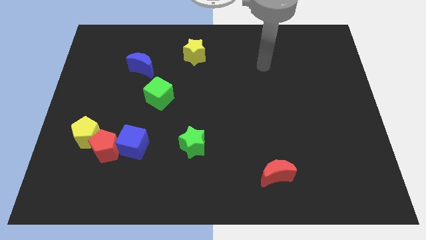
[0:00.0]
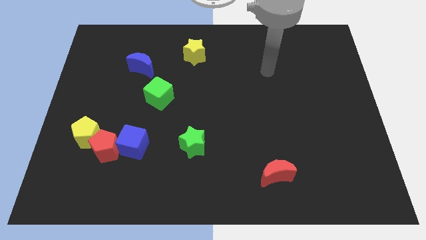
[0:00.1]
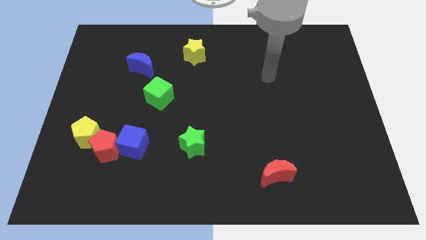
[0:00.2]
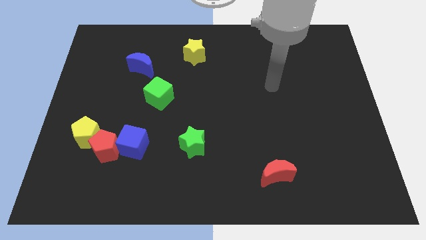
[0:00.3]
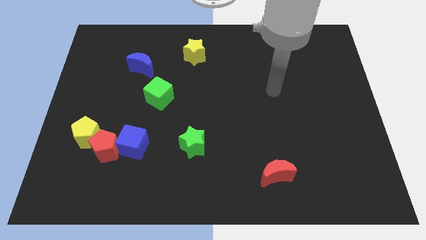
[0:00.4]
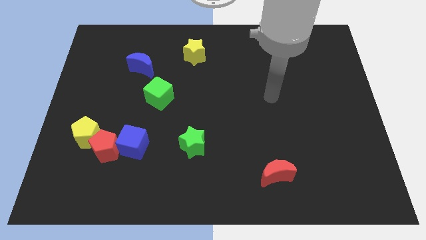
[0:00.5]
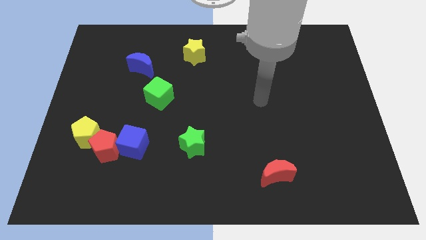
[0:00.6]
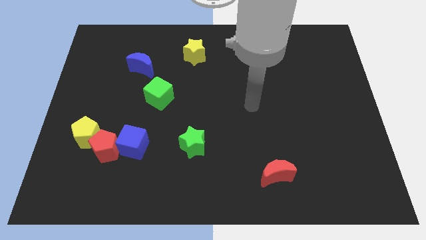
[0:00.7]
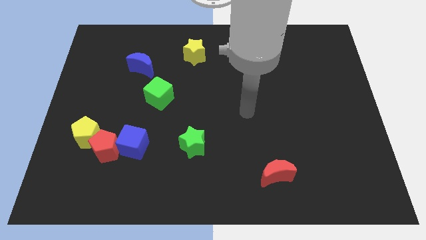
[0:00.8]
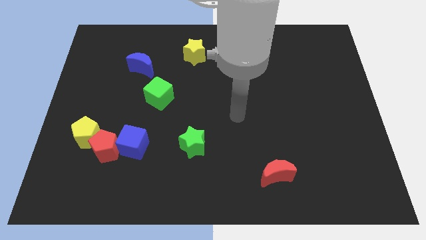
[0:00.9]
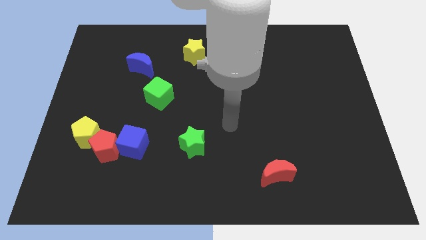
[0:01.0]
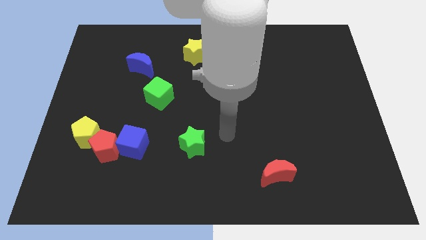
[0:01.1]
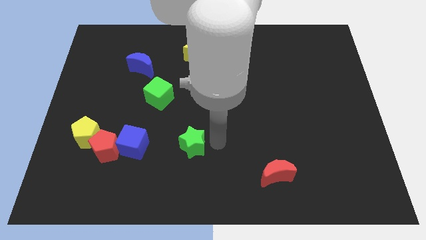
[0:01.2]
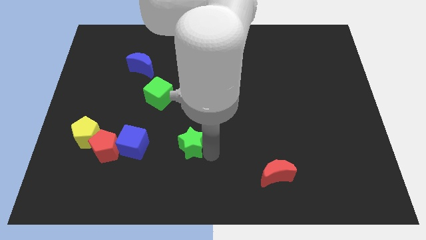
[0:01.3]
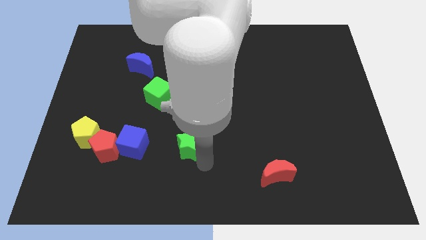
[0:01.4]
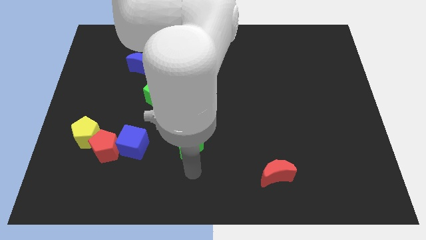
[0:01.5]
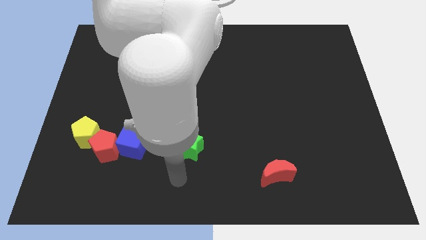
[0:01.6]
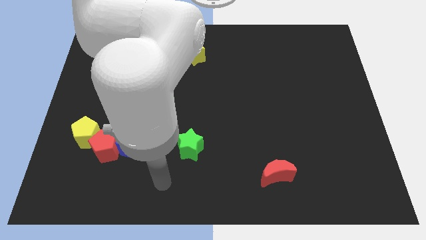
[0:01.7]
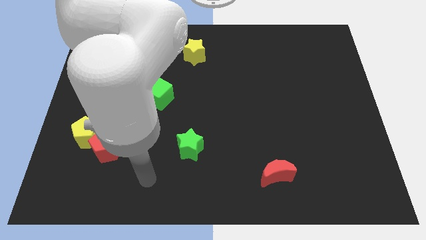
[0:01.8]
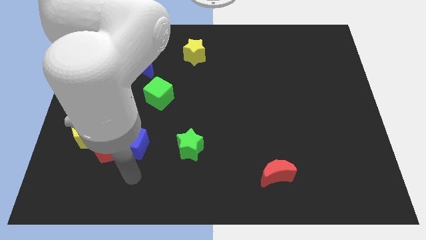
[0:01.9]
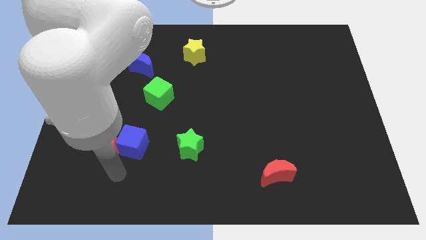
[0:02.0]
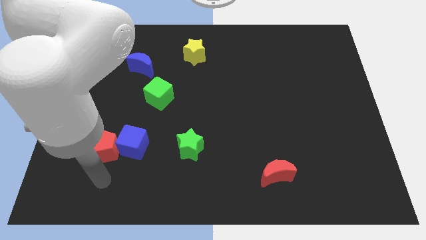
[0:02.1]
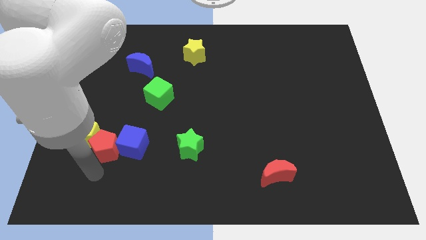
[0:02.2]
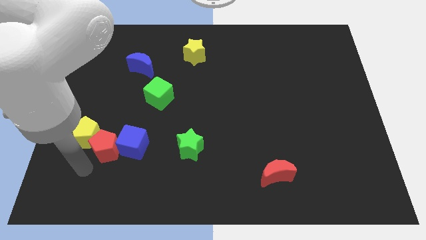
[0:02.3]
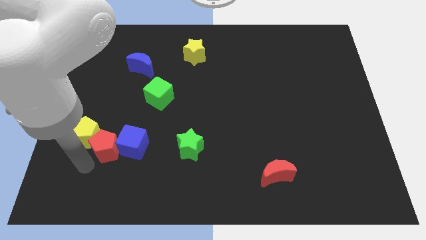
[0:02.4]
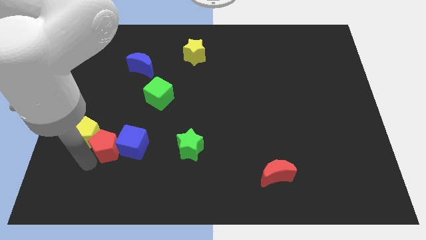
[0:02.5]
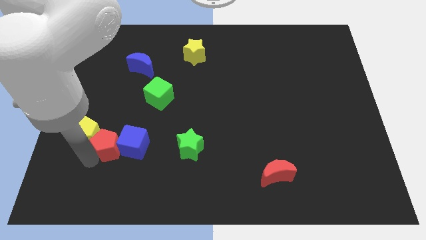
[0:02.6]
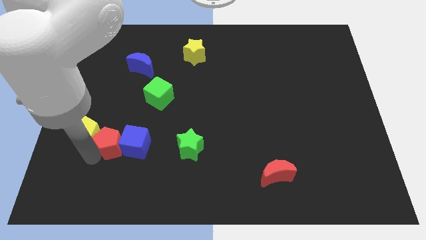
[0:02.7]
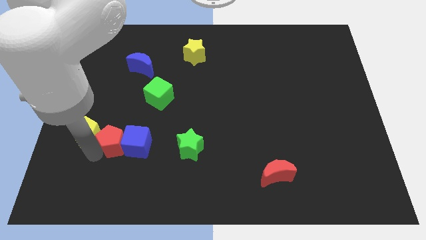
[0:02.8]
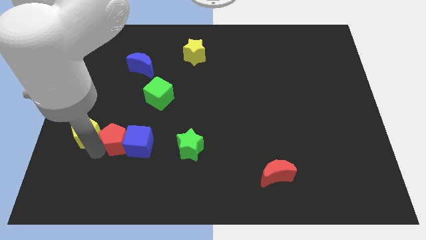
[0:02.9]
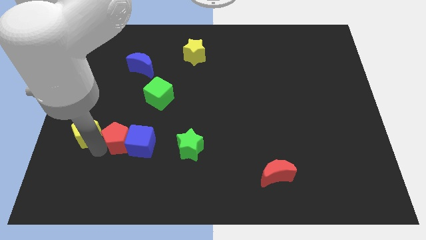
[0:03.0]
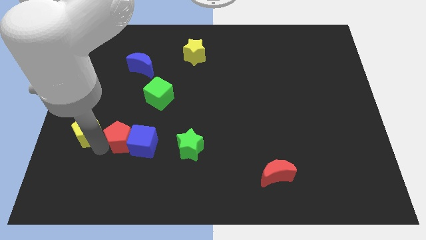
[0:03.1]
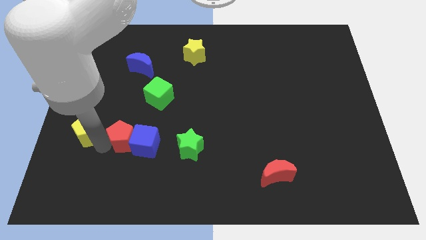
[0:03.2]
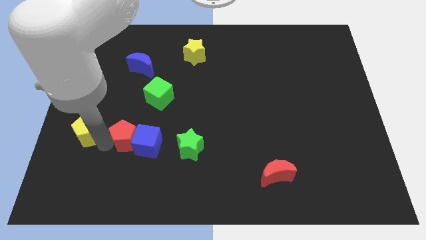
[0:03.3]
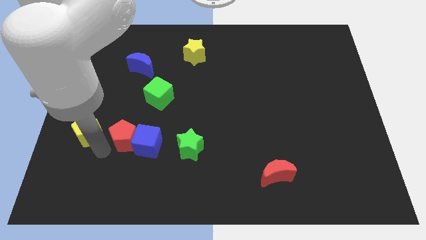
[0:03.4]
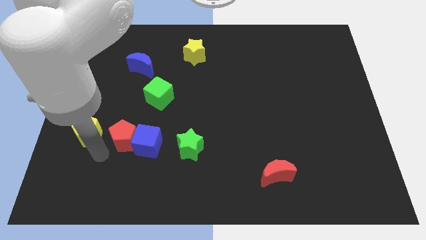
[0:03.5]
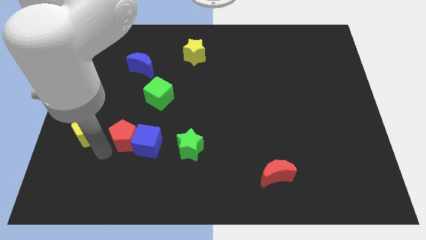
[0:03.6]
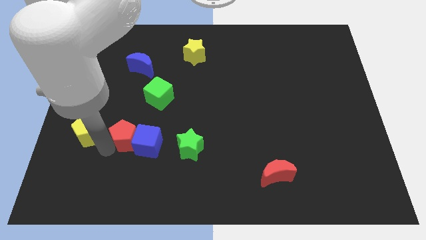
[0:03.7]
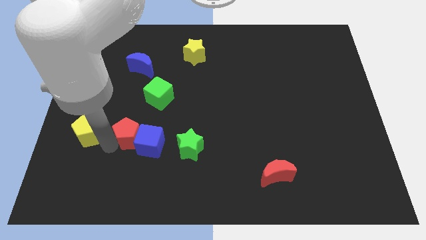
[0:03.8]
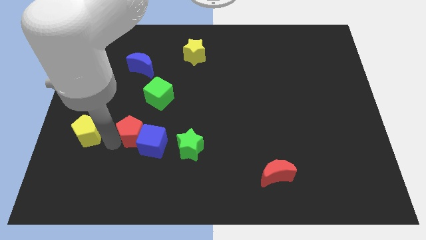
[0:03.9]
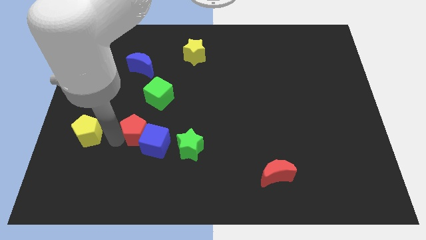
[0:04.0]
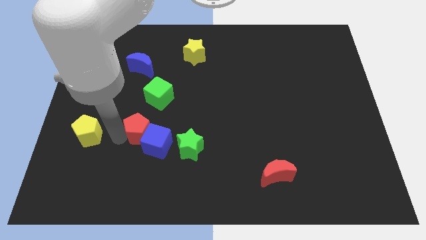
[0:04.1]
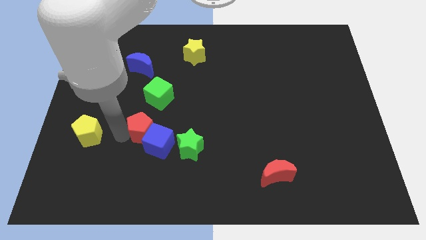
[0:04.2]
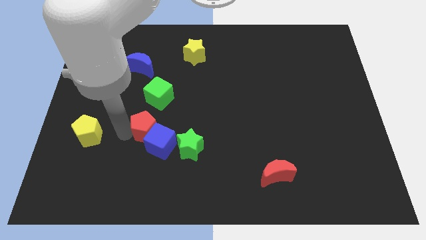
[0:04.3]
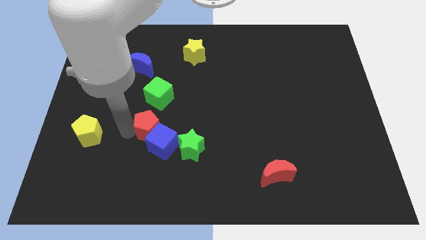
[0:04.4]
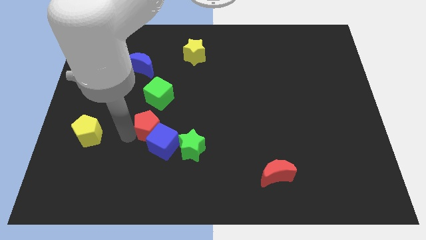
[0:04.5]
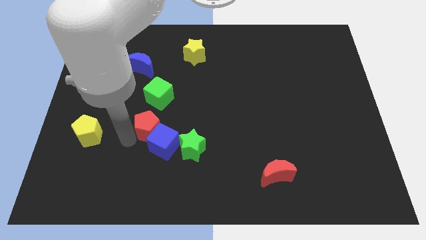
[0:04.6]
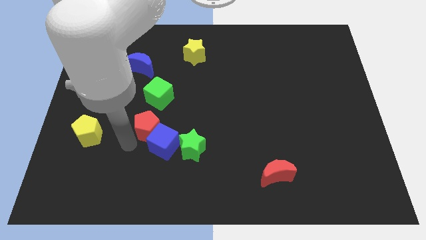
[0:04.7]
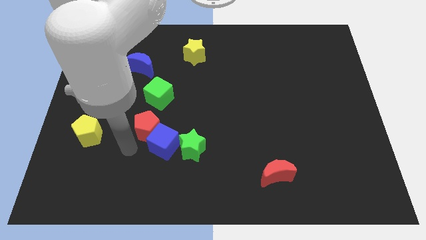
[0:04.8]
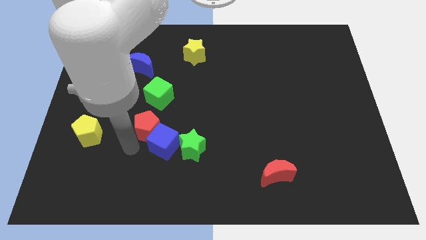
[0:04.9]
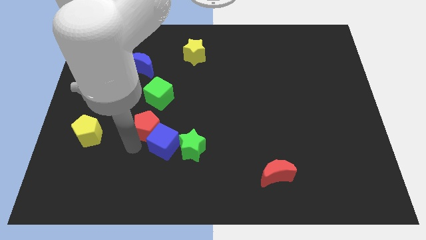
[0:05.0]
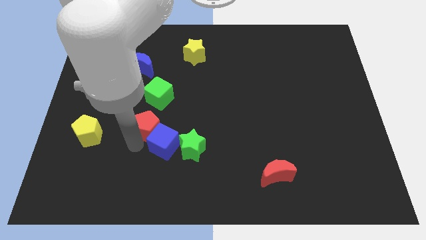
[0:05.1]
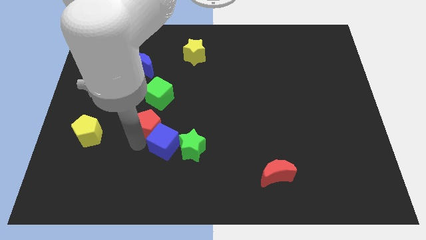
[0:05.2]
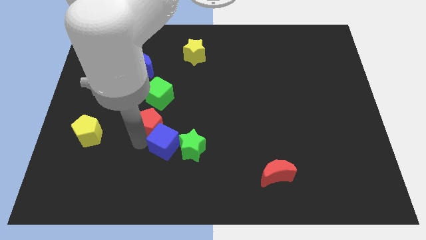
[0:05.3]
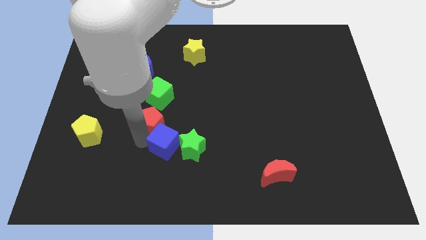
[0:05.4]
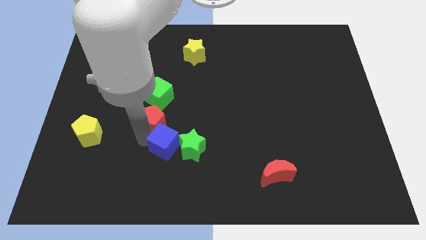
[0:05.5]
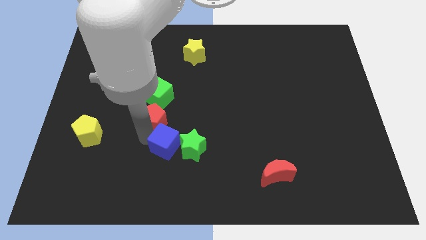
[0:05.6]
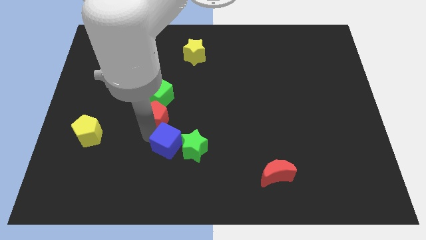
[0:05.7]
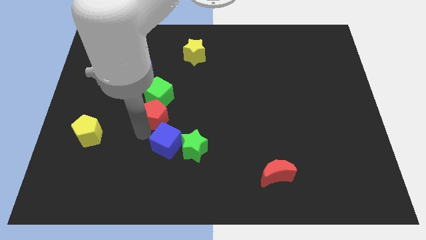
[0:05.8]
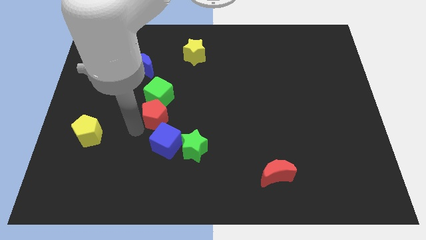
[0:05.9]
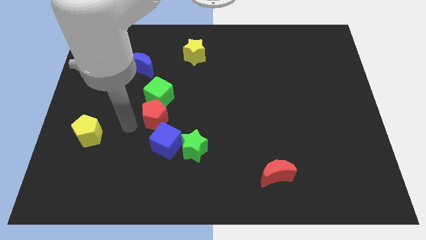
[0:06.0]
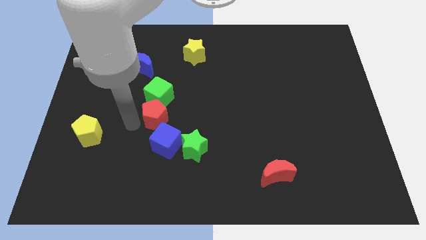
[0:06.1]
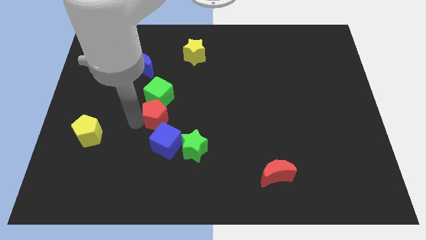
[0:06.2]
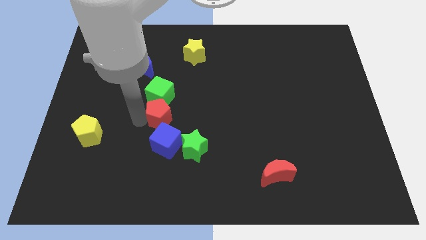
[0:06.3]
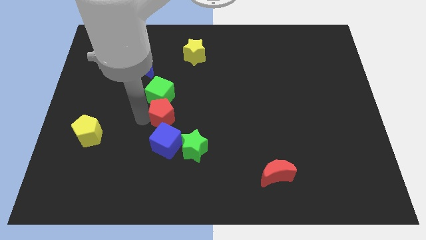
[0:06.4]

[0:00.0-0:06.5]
move the red pentagon to the middle of the board

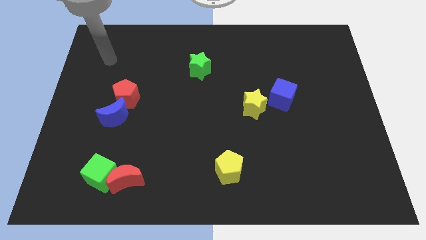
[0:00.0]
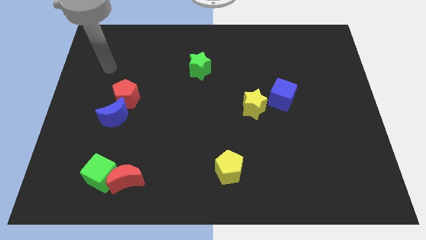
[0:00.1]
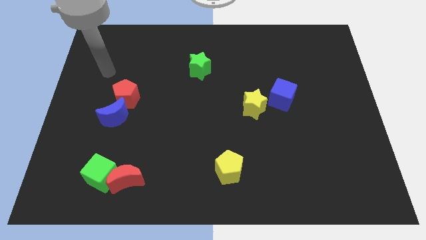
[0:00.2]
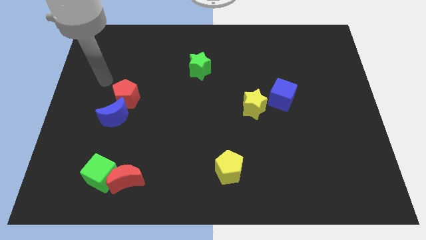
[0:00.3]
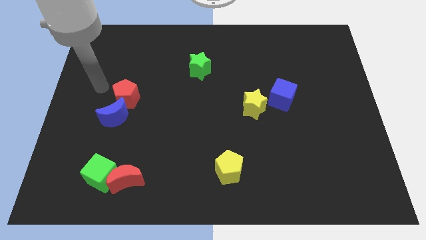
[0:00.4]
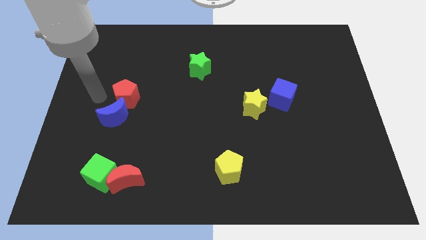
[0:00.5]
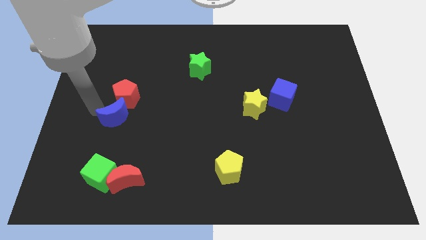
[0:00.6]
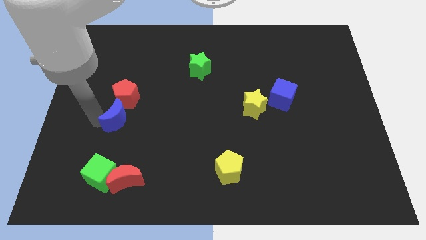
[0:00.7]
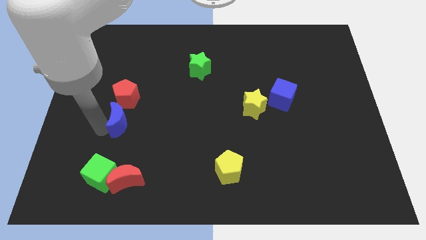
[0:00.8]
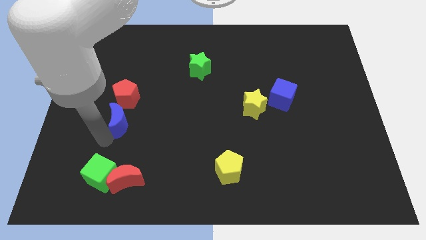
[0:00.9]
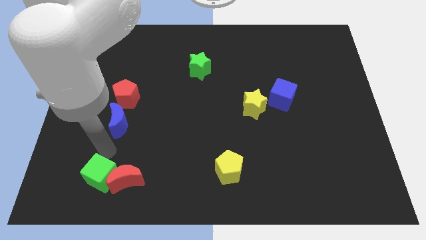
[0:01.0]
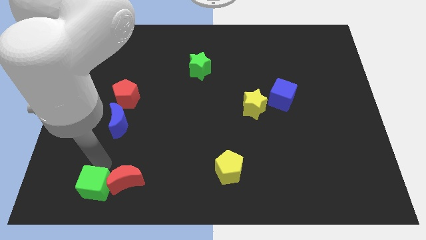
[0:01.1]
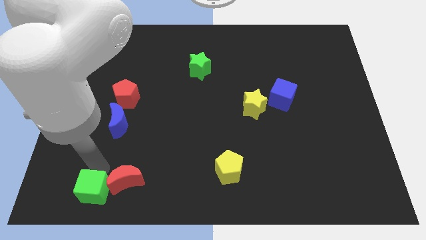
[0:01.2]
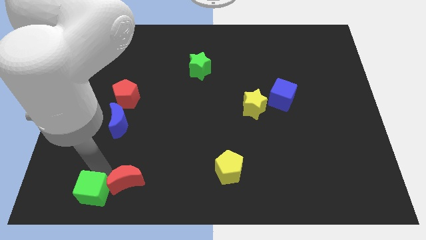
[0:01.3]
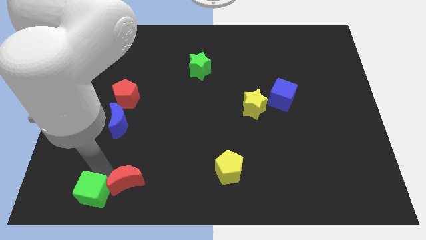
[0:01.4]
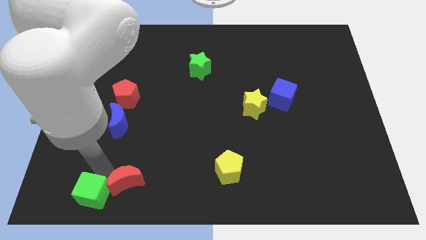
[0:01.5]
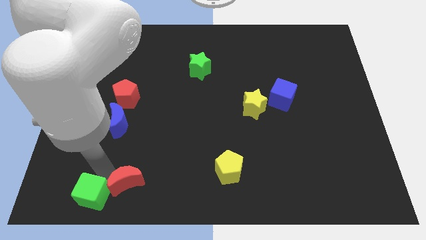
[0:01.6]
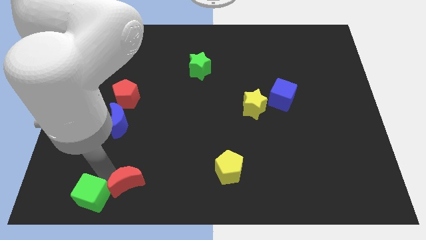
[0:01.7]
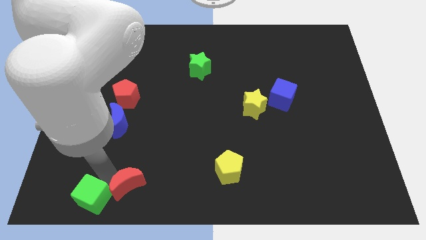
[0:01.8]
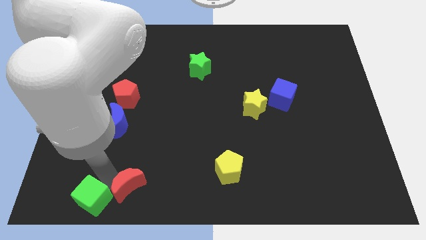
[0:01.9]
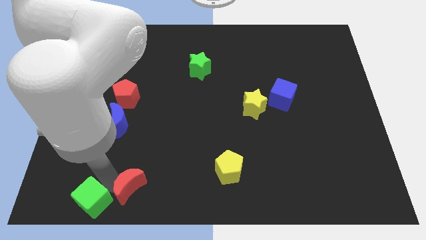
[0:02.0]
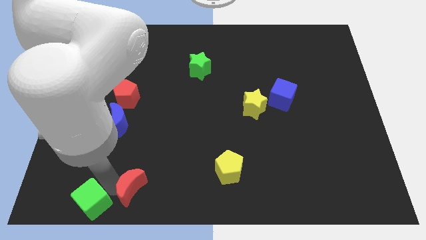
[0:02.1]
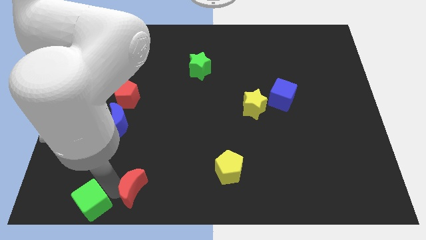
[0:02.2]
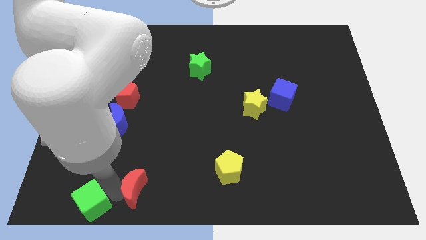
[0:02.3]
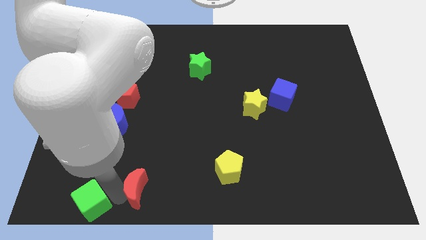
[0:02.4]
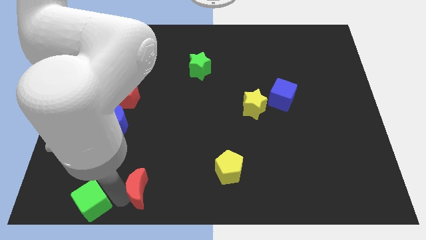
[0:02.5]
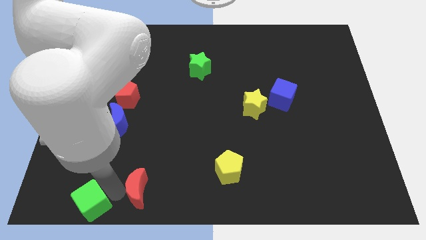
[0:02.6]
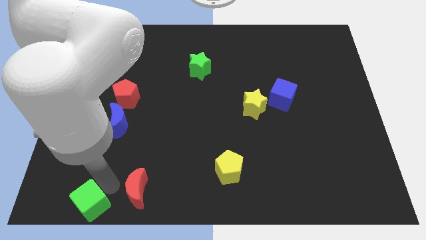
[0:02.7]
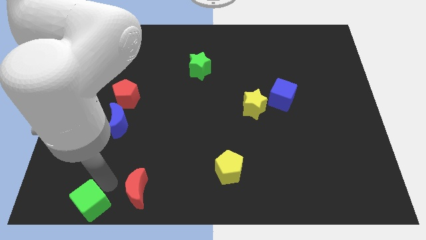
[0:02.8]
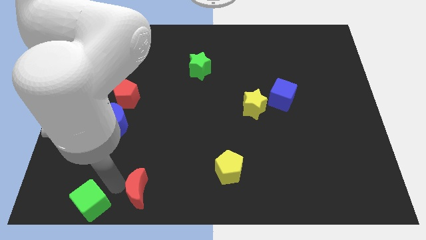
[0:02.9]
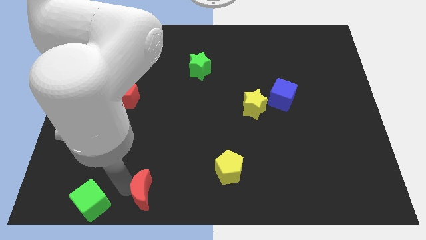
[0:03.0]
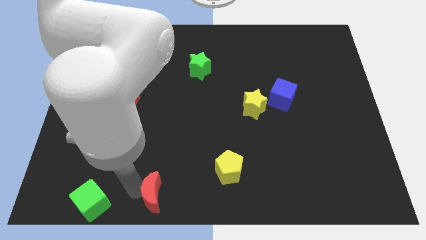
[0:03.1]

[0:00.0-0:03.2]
slide the red moon to the bottom side
